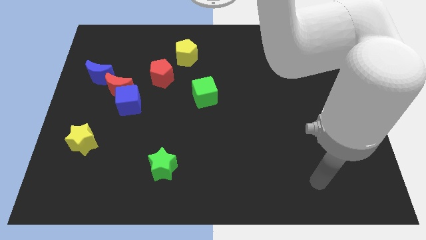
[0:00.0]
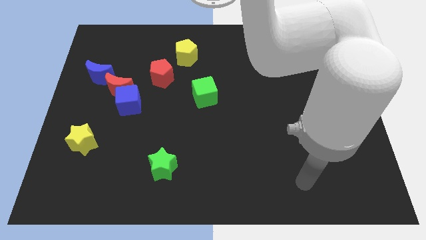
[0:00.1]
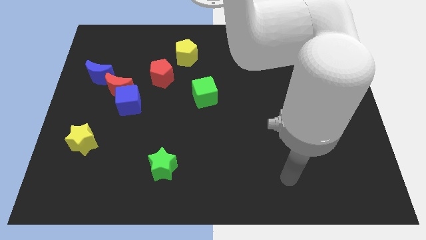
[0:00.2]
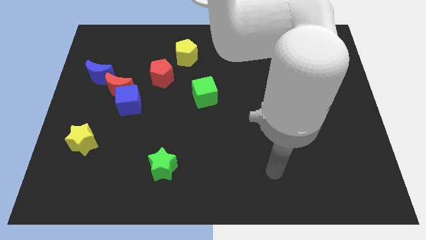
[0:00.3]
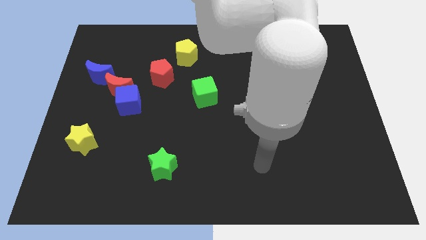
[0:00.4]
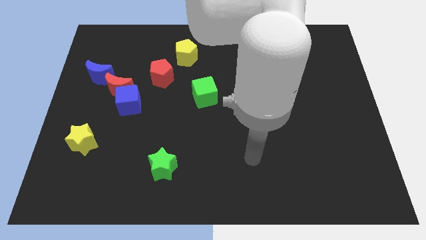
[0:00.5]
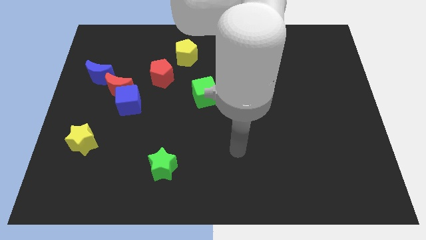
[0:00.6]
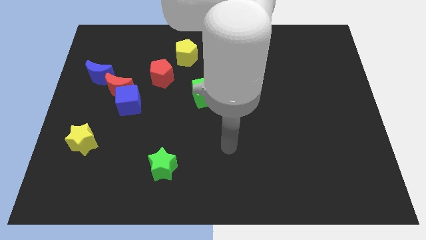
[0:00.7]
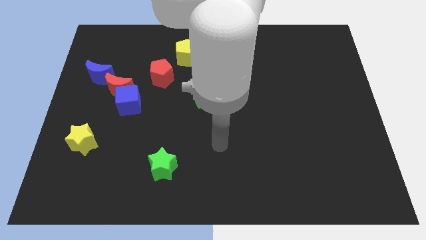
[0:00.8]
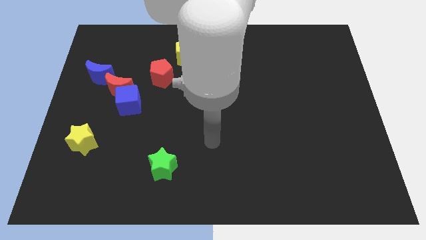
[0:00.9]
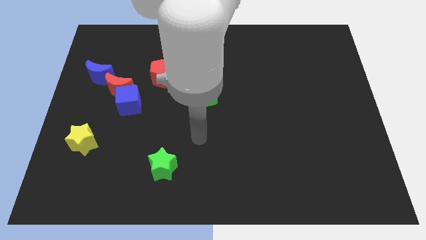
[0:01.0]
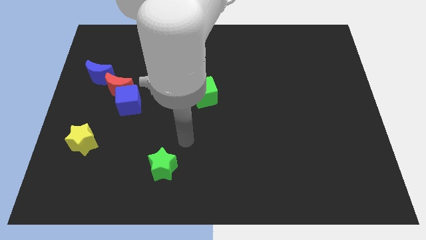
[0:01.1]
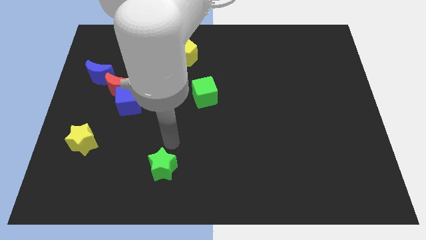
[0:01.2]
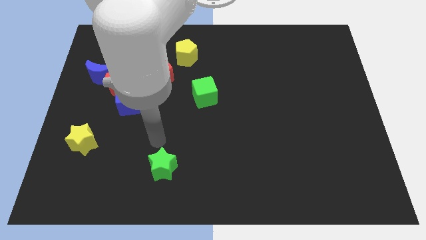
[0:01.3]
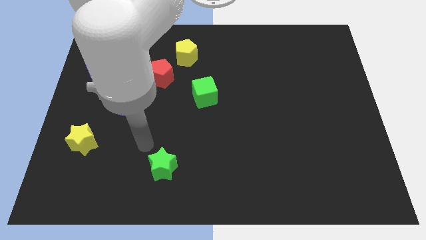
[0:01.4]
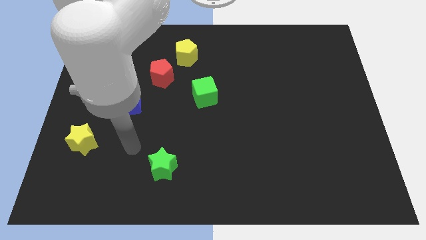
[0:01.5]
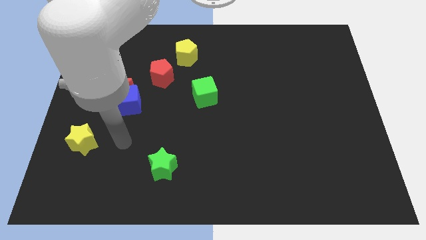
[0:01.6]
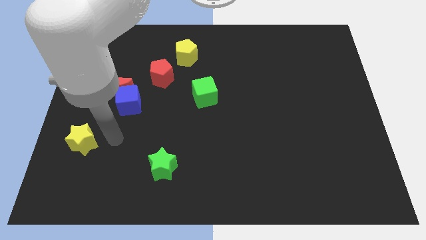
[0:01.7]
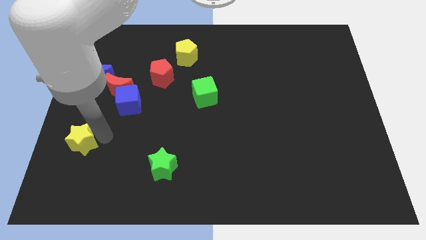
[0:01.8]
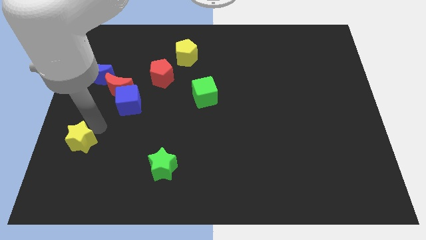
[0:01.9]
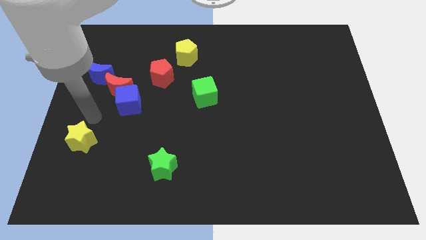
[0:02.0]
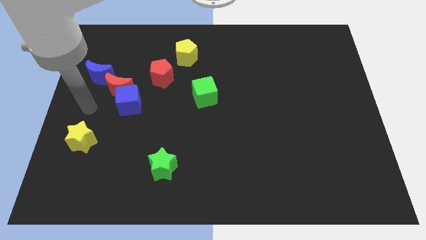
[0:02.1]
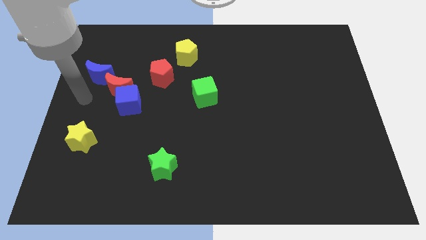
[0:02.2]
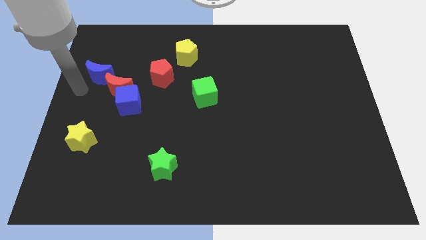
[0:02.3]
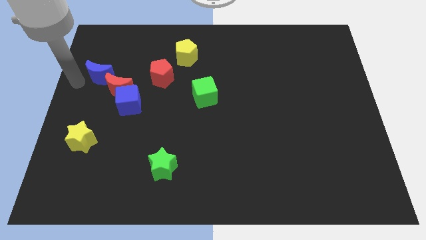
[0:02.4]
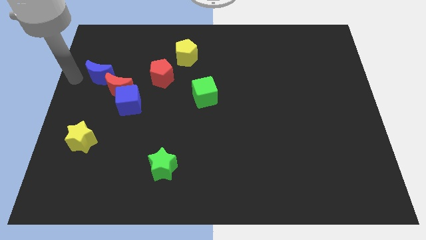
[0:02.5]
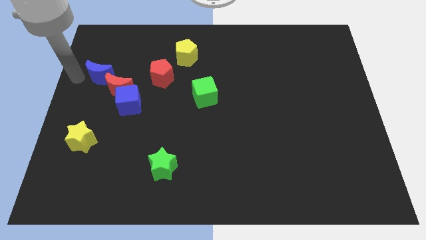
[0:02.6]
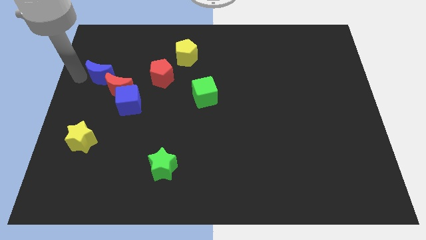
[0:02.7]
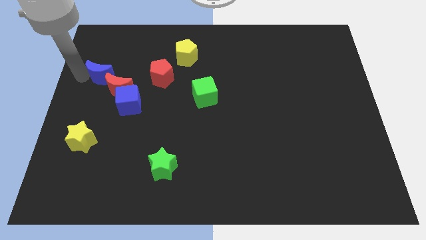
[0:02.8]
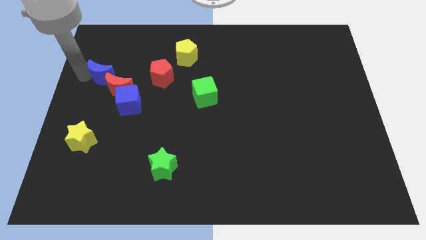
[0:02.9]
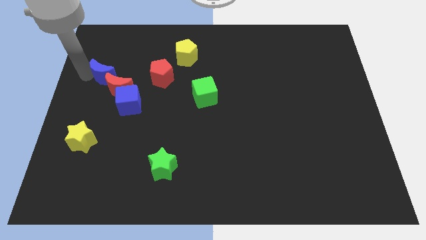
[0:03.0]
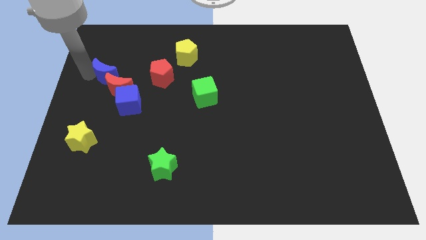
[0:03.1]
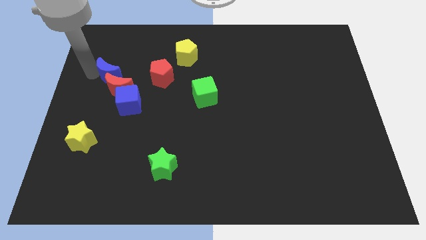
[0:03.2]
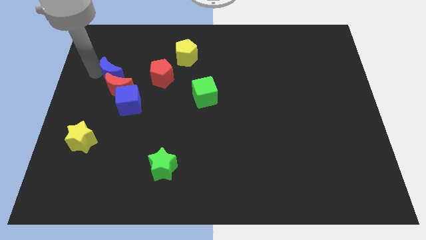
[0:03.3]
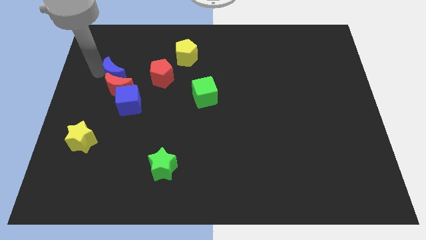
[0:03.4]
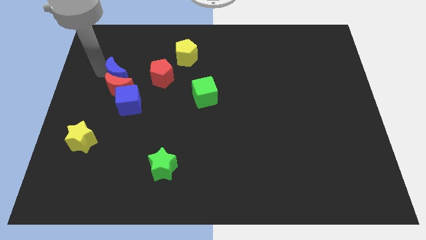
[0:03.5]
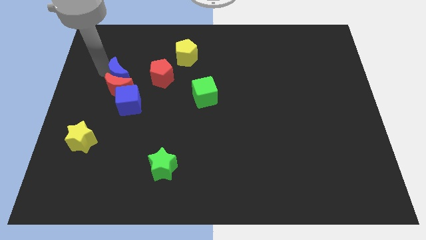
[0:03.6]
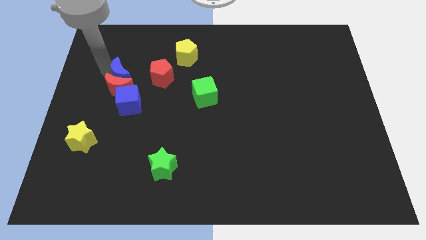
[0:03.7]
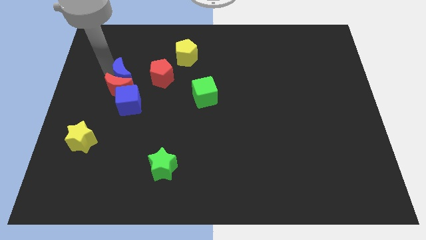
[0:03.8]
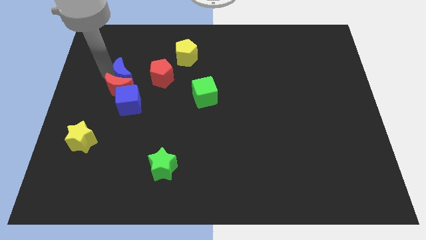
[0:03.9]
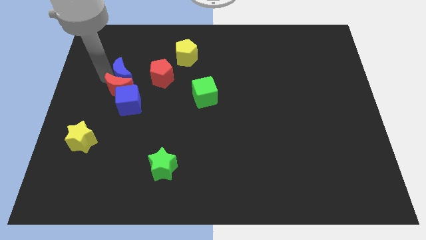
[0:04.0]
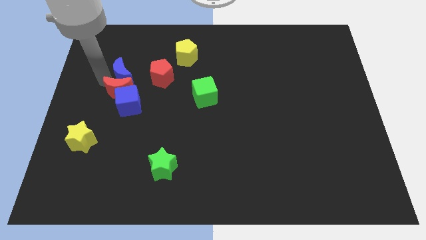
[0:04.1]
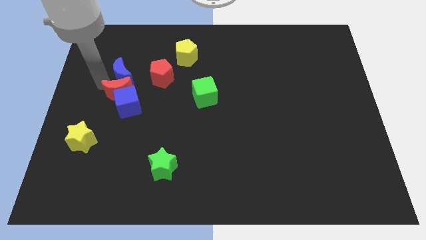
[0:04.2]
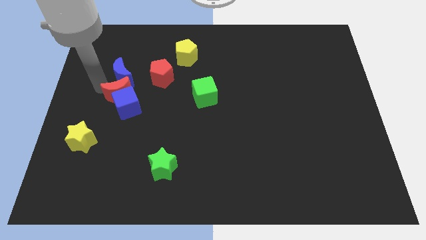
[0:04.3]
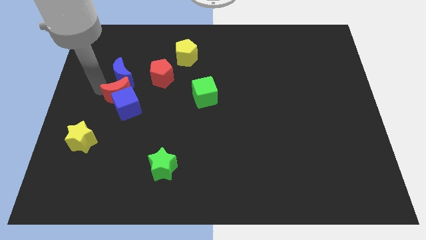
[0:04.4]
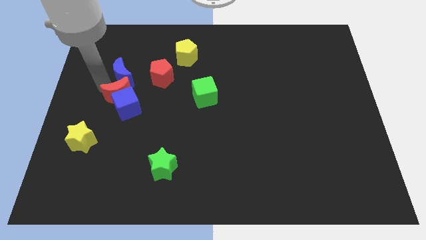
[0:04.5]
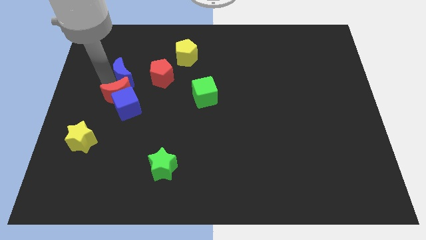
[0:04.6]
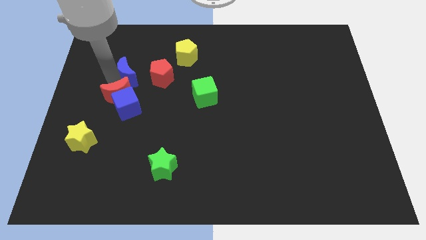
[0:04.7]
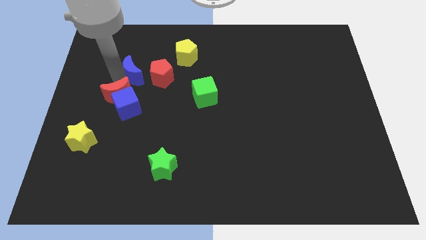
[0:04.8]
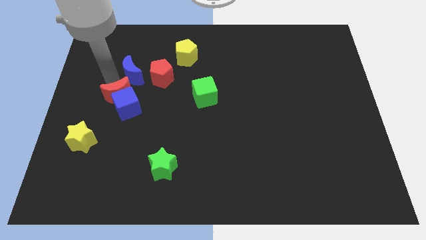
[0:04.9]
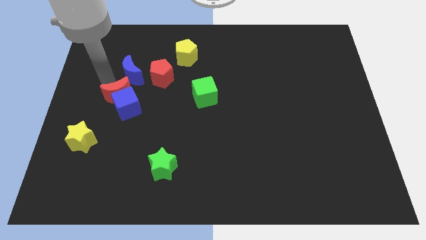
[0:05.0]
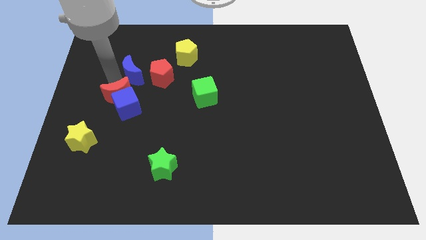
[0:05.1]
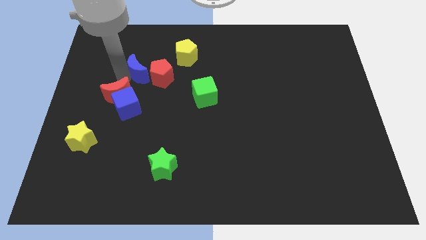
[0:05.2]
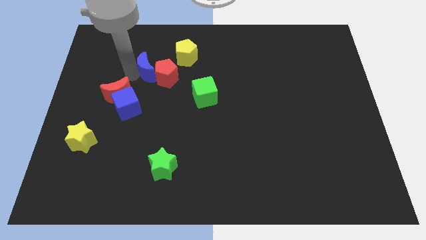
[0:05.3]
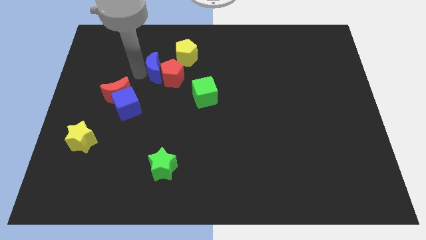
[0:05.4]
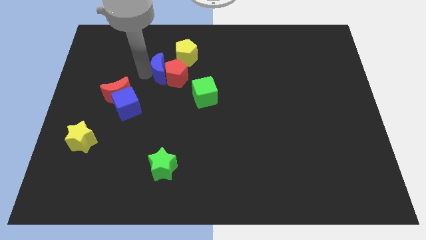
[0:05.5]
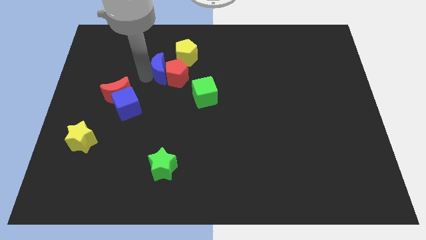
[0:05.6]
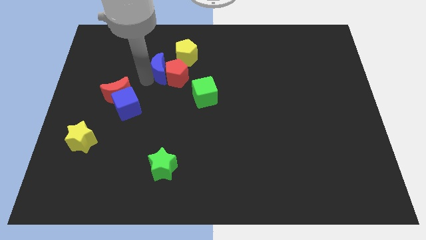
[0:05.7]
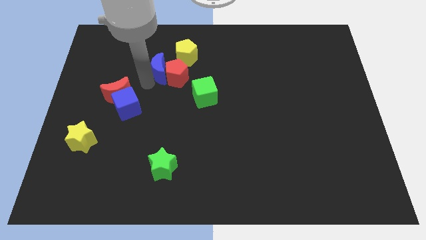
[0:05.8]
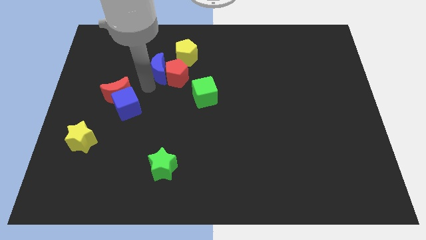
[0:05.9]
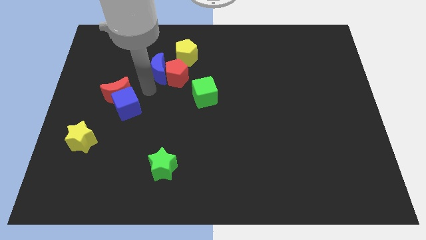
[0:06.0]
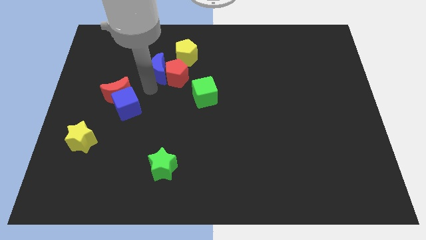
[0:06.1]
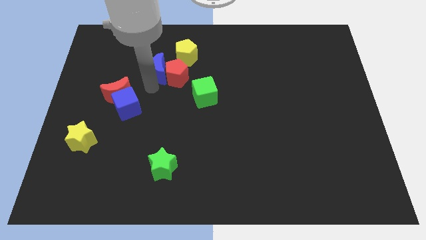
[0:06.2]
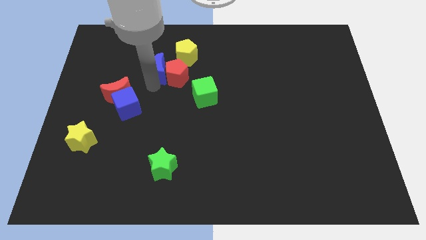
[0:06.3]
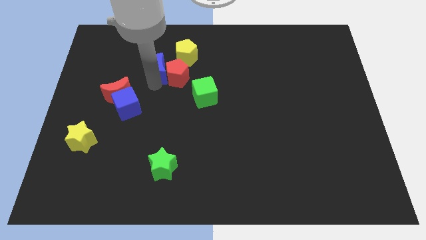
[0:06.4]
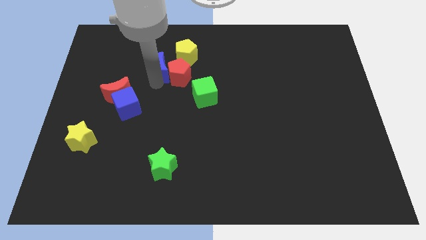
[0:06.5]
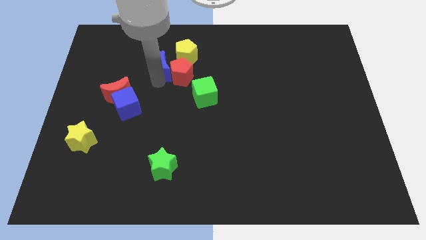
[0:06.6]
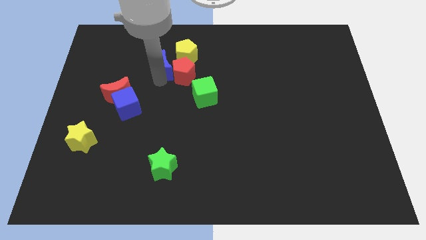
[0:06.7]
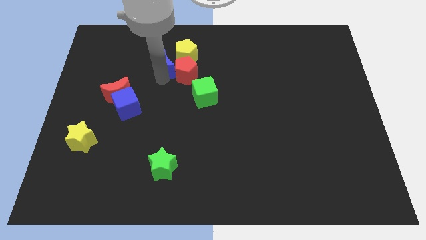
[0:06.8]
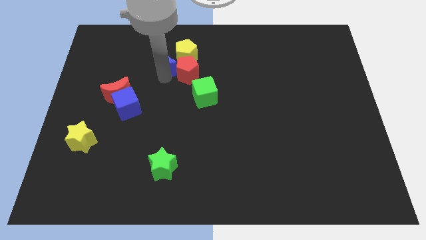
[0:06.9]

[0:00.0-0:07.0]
push the blue moon close to the yellow pentagon
